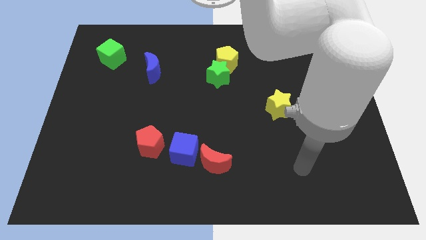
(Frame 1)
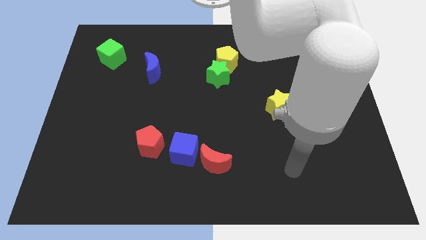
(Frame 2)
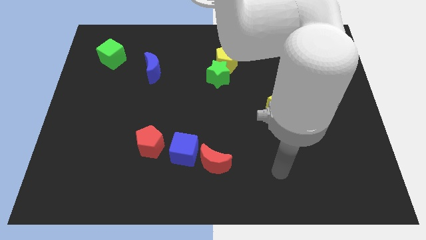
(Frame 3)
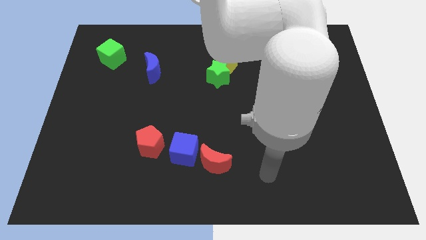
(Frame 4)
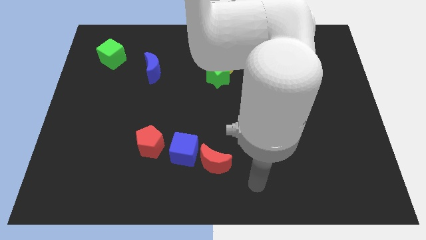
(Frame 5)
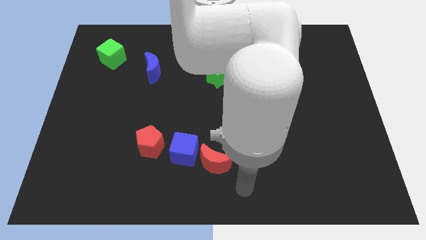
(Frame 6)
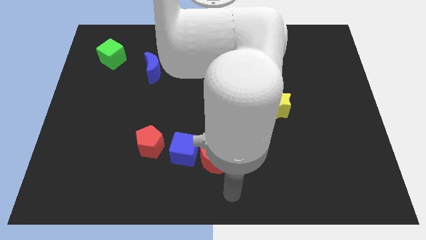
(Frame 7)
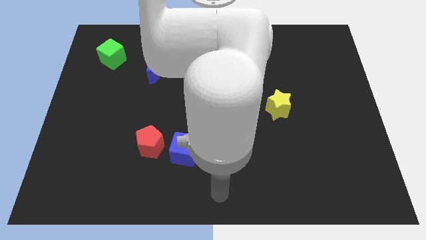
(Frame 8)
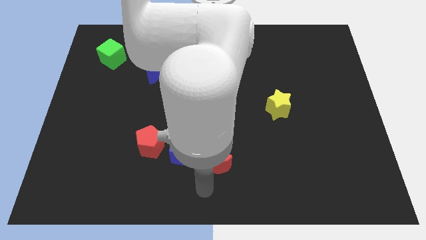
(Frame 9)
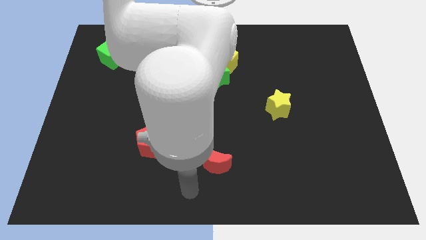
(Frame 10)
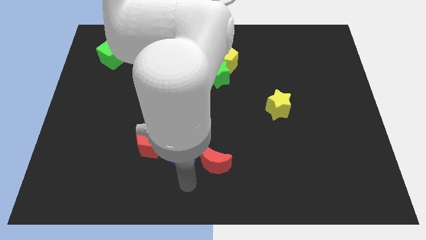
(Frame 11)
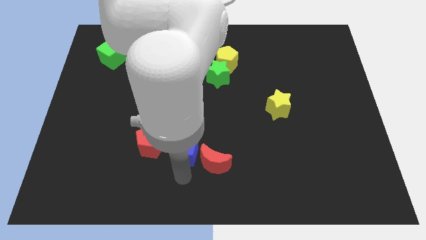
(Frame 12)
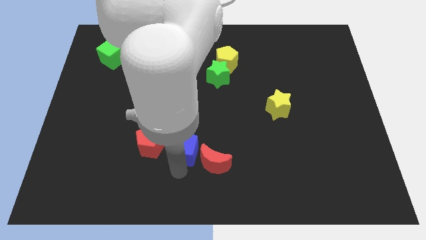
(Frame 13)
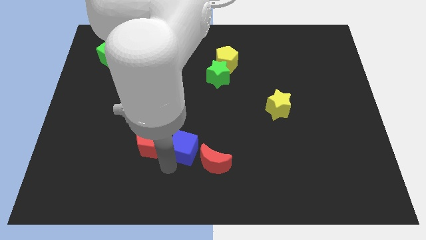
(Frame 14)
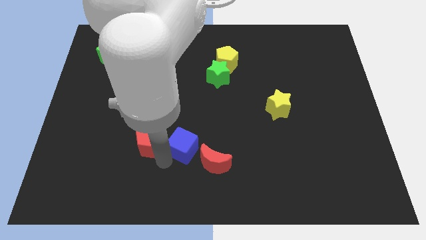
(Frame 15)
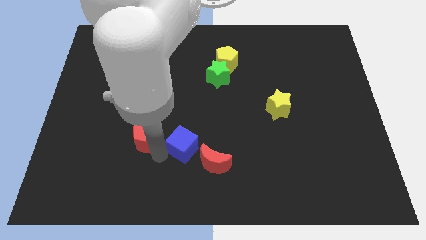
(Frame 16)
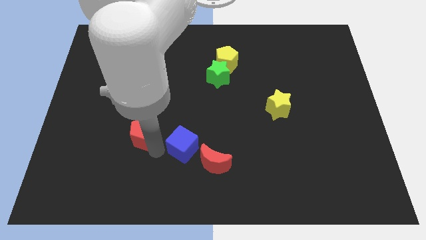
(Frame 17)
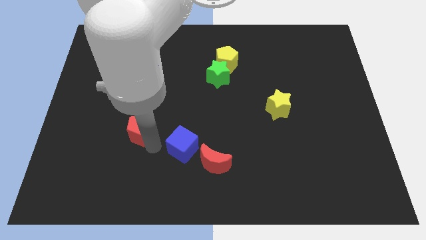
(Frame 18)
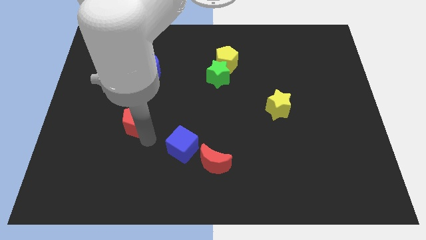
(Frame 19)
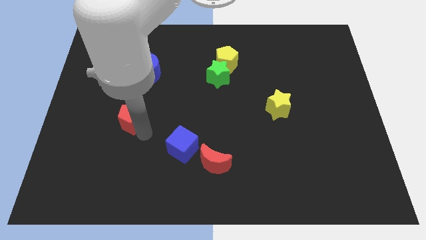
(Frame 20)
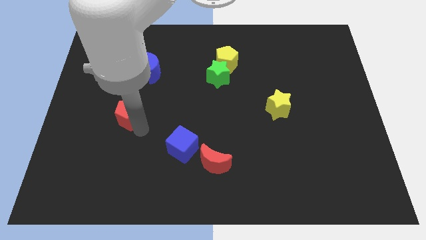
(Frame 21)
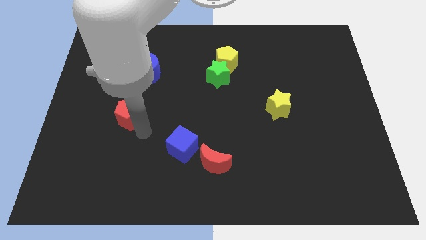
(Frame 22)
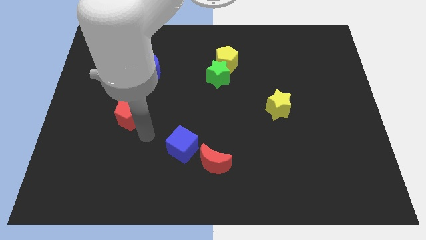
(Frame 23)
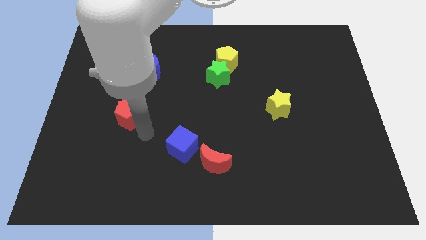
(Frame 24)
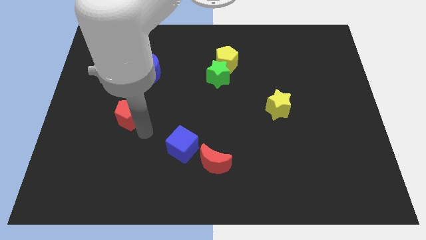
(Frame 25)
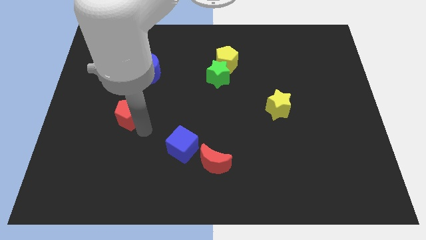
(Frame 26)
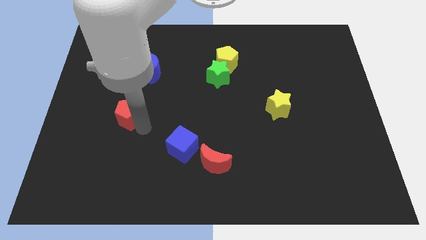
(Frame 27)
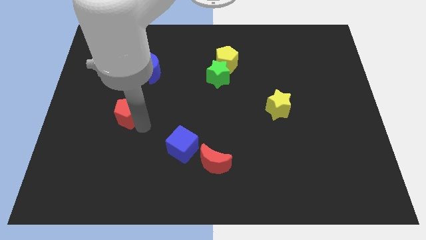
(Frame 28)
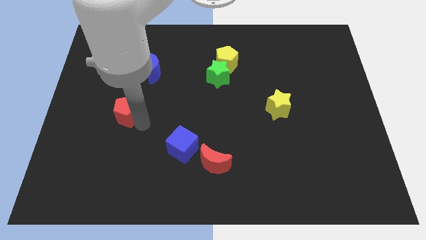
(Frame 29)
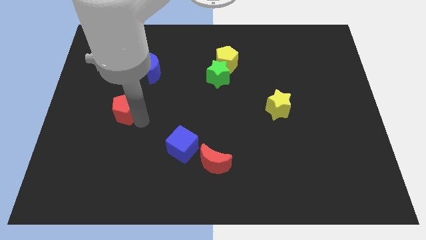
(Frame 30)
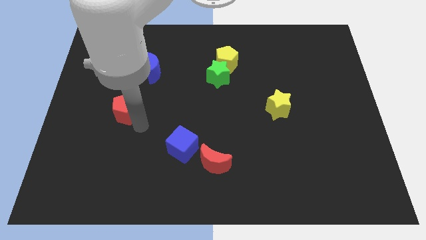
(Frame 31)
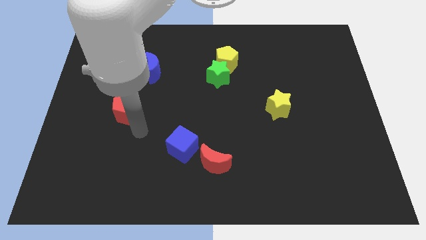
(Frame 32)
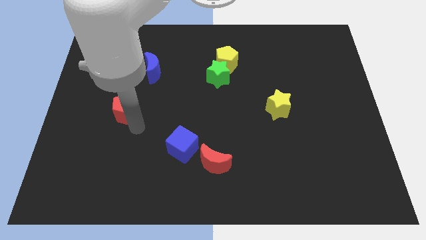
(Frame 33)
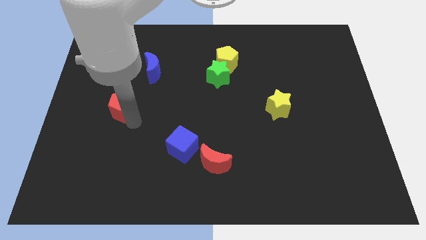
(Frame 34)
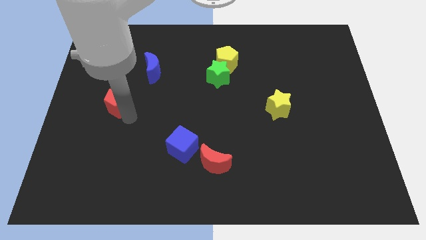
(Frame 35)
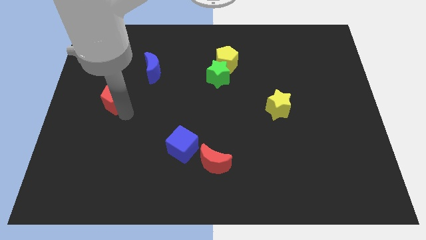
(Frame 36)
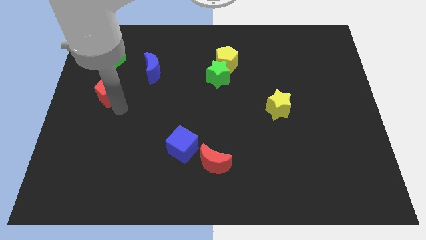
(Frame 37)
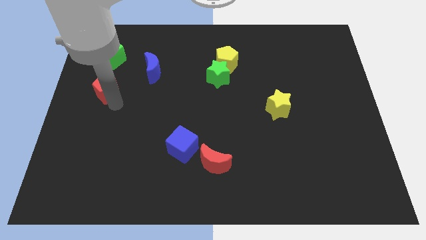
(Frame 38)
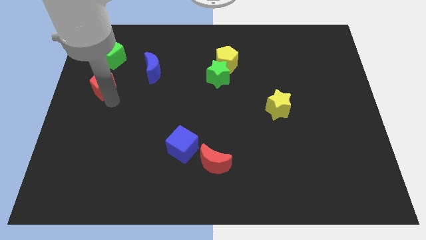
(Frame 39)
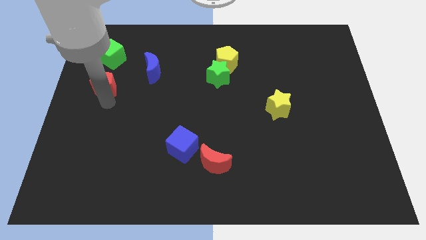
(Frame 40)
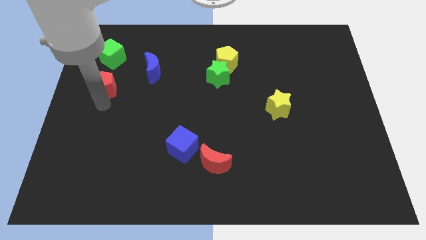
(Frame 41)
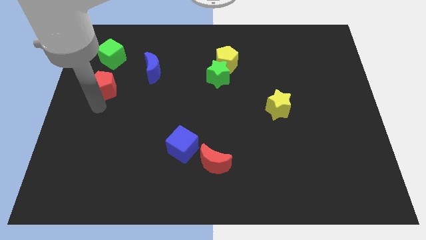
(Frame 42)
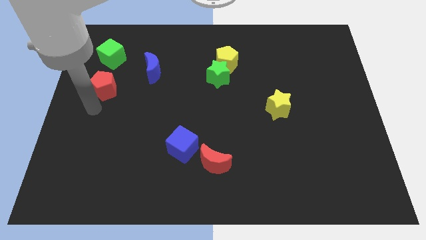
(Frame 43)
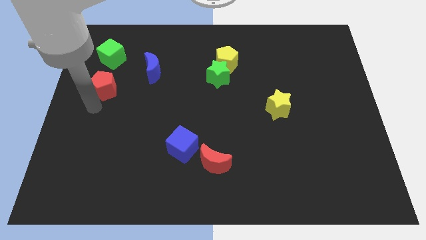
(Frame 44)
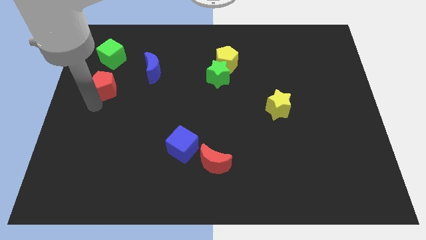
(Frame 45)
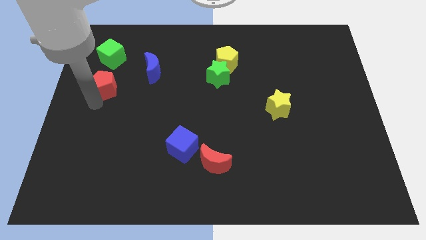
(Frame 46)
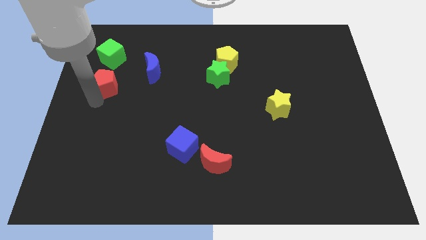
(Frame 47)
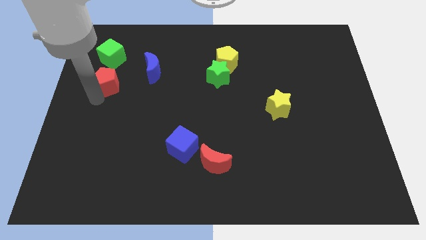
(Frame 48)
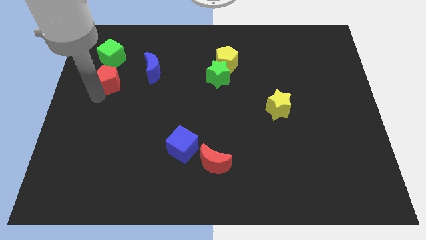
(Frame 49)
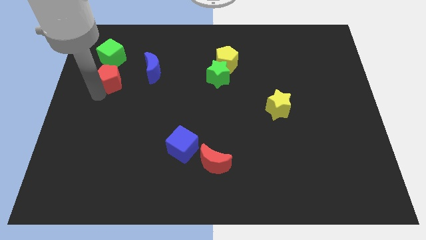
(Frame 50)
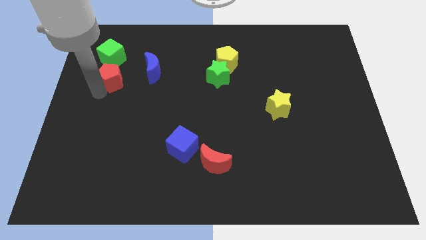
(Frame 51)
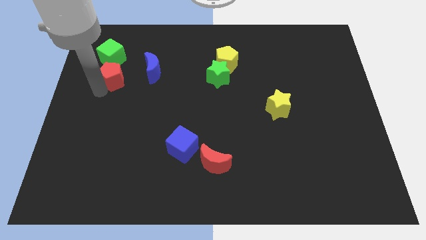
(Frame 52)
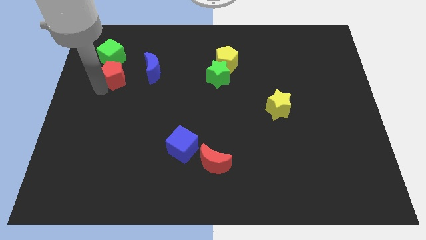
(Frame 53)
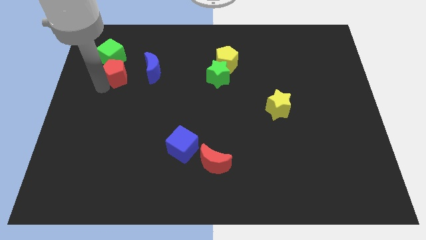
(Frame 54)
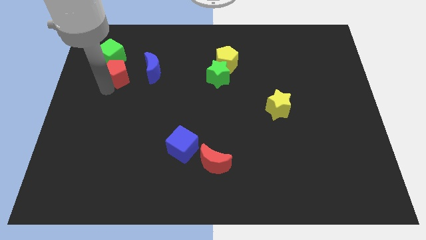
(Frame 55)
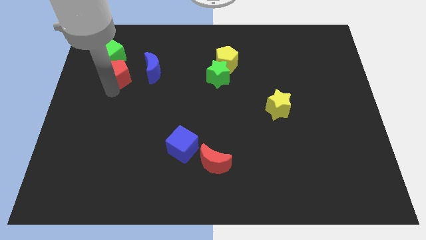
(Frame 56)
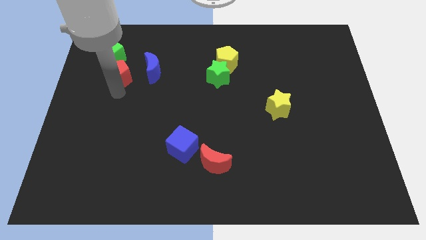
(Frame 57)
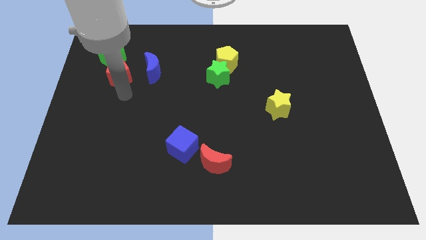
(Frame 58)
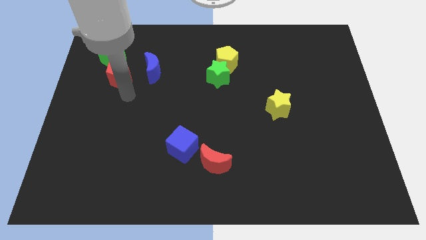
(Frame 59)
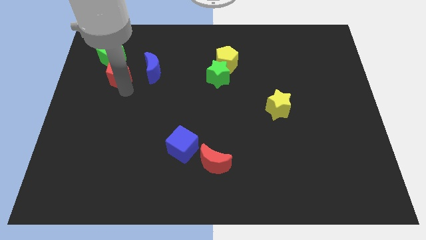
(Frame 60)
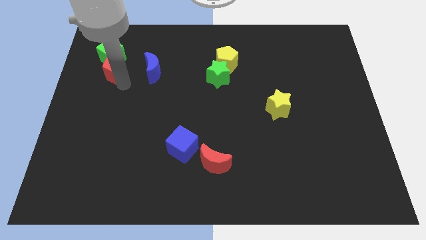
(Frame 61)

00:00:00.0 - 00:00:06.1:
put the red pentagon next to the green cube

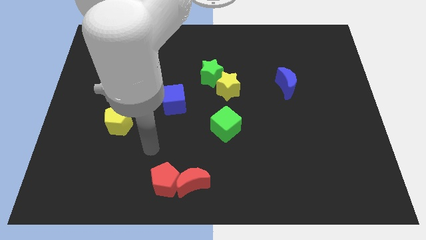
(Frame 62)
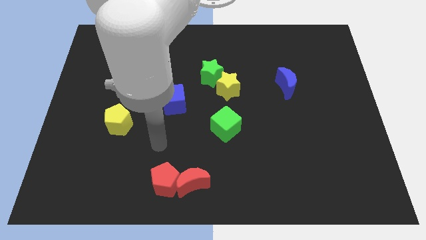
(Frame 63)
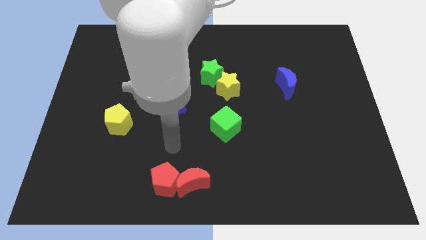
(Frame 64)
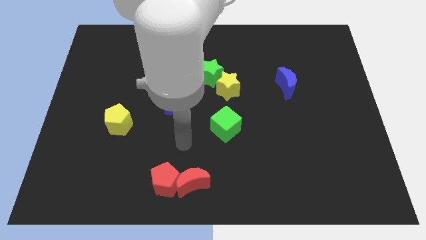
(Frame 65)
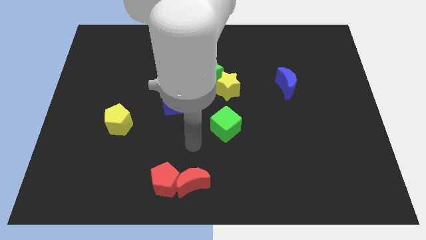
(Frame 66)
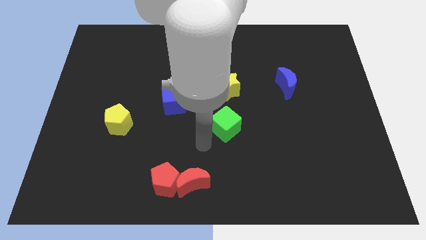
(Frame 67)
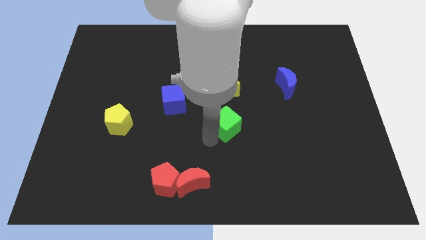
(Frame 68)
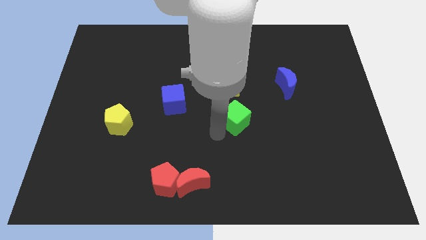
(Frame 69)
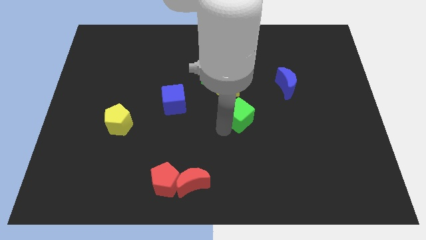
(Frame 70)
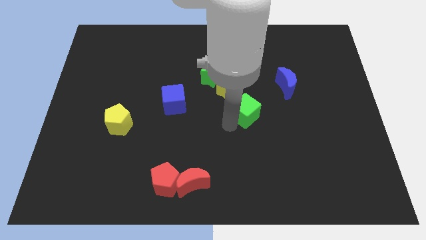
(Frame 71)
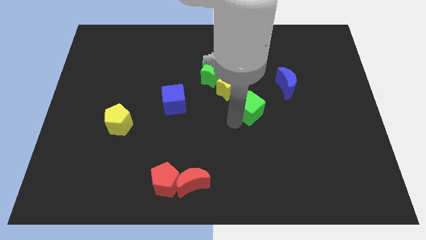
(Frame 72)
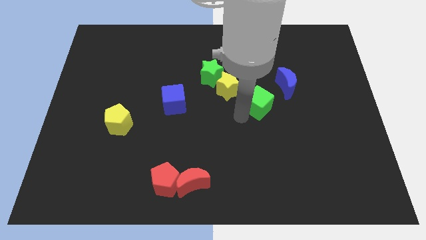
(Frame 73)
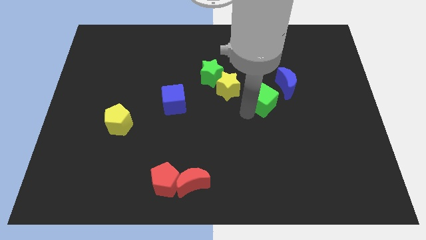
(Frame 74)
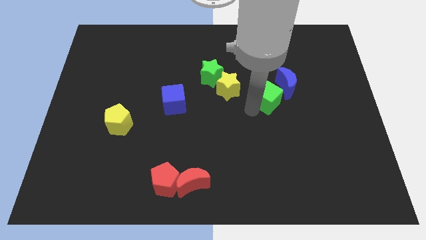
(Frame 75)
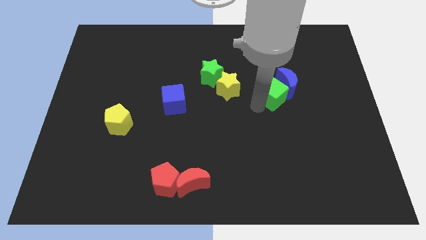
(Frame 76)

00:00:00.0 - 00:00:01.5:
move the green cube close to the blue moon
